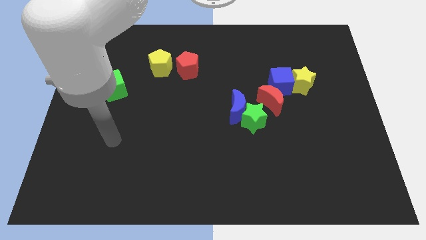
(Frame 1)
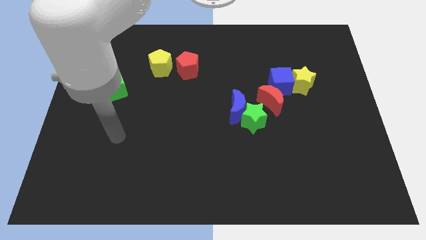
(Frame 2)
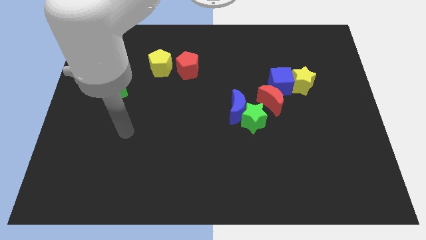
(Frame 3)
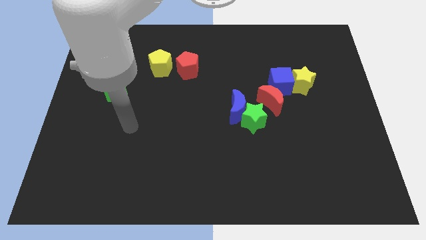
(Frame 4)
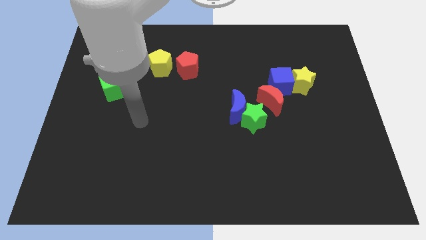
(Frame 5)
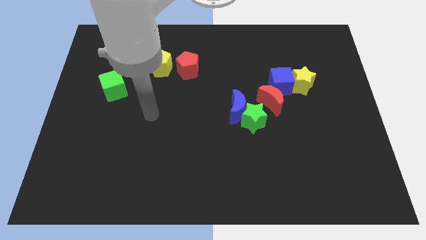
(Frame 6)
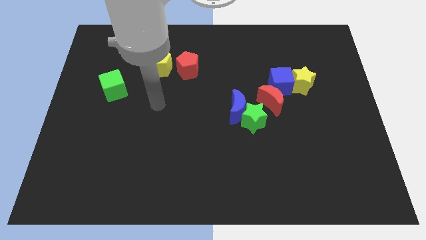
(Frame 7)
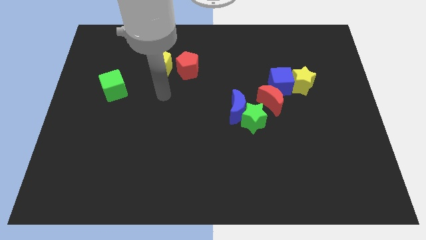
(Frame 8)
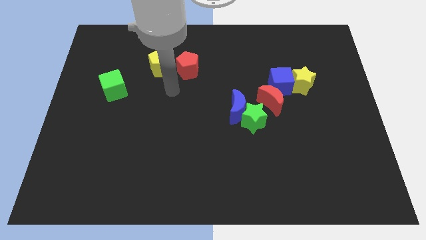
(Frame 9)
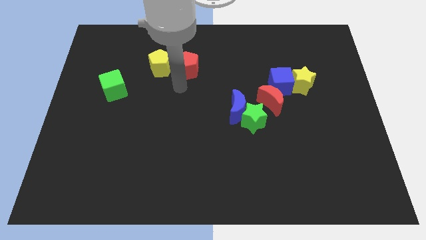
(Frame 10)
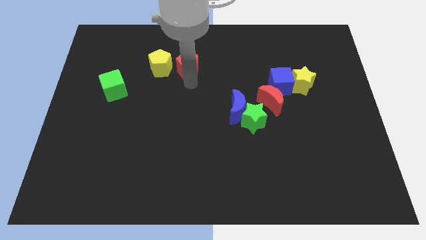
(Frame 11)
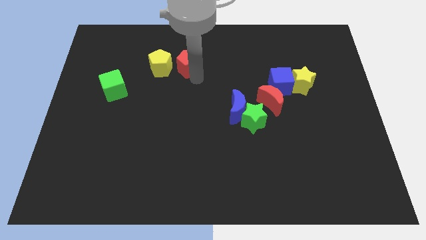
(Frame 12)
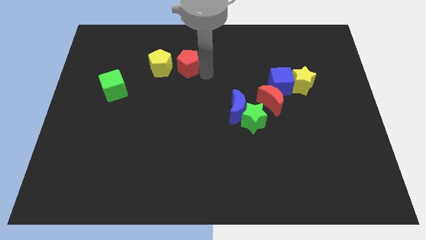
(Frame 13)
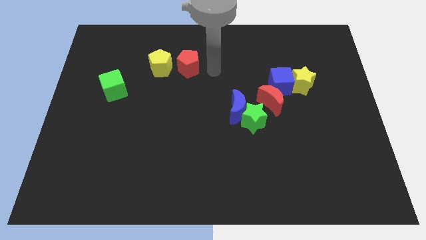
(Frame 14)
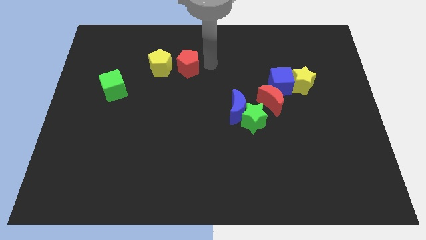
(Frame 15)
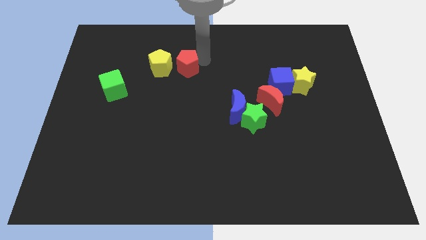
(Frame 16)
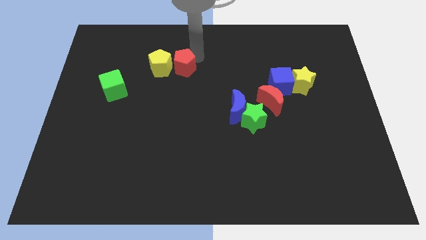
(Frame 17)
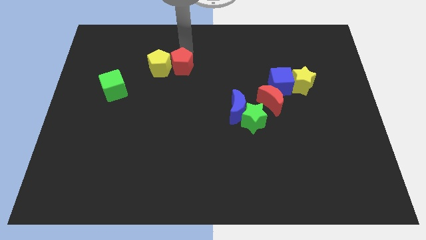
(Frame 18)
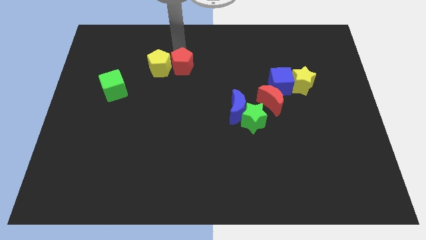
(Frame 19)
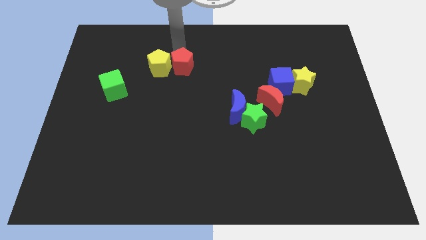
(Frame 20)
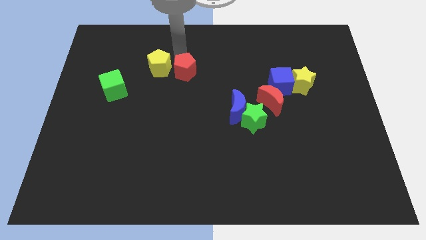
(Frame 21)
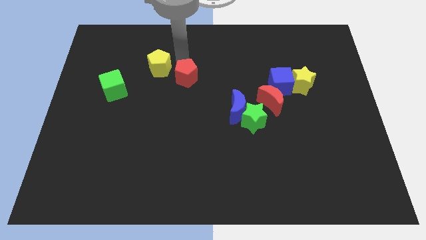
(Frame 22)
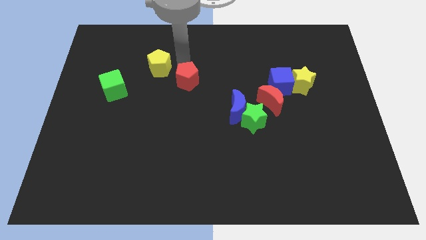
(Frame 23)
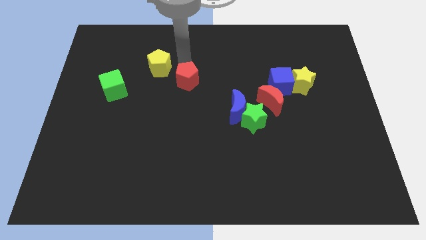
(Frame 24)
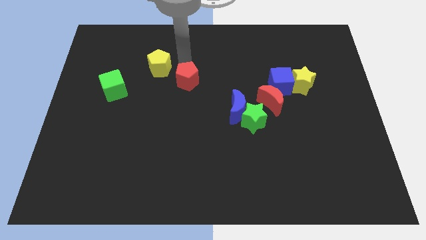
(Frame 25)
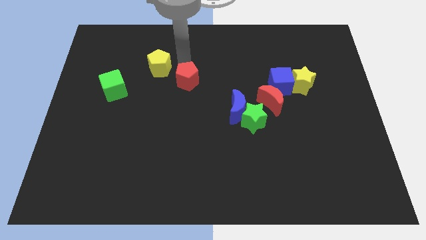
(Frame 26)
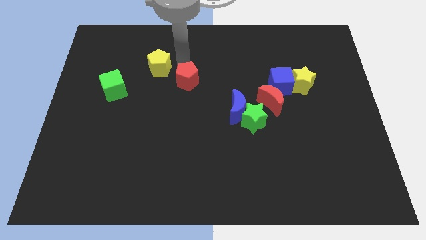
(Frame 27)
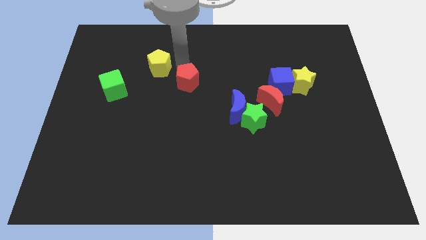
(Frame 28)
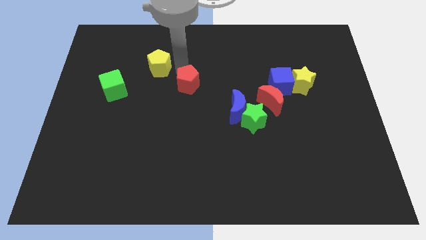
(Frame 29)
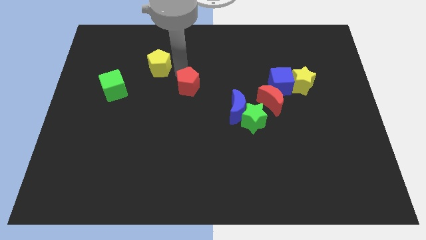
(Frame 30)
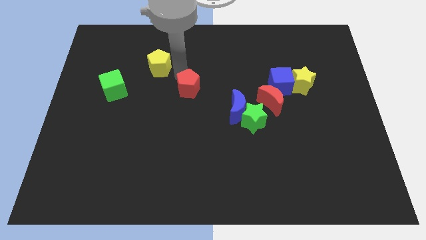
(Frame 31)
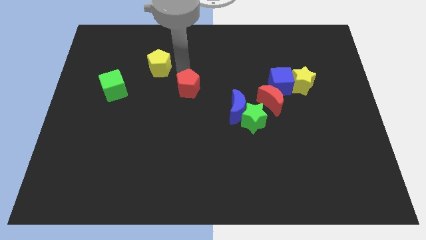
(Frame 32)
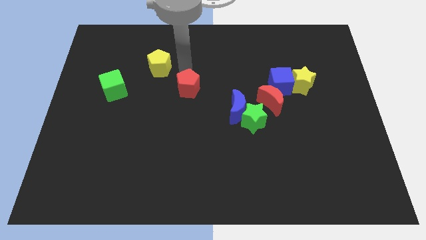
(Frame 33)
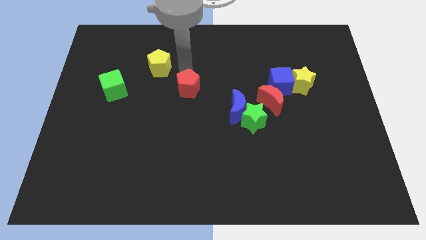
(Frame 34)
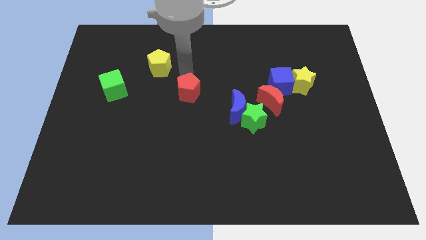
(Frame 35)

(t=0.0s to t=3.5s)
slightly move the red pentagon down

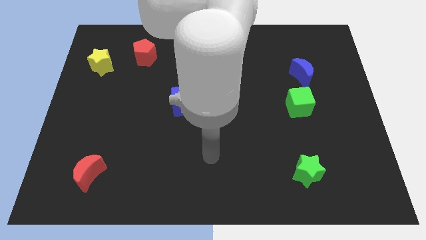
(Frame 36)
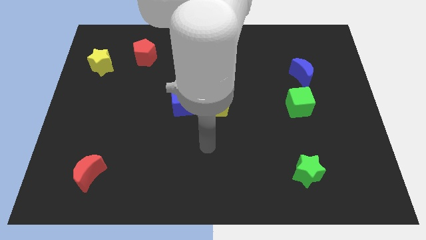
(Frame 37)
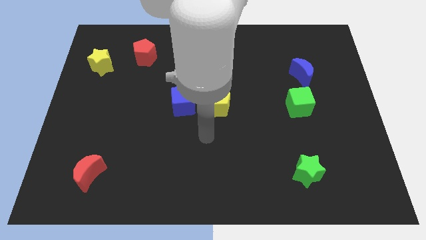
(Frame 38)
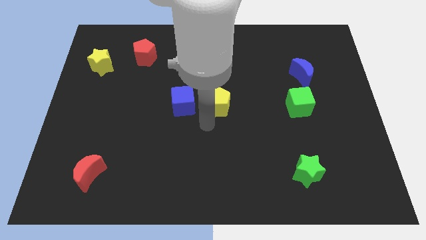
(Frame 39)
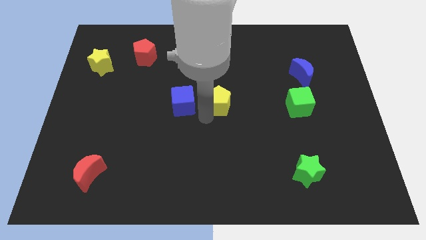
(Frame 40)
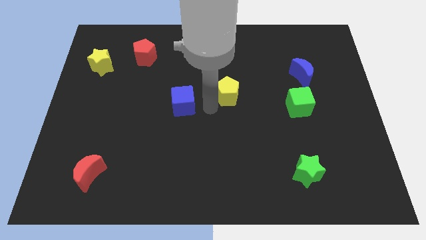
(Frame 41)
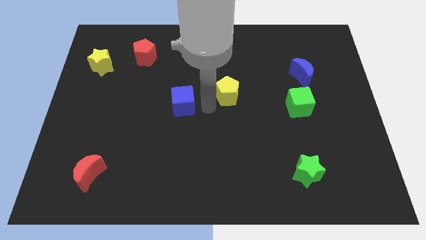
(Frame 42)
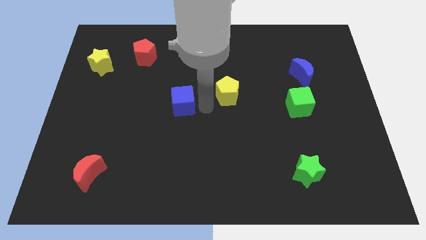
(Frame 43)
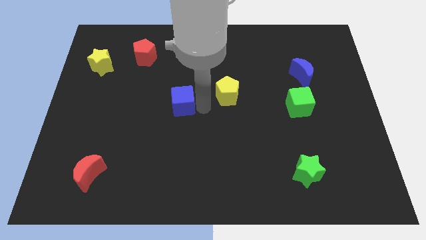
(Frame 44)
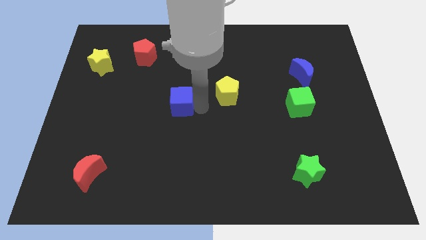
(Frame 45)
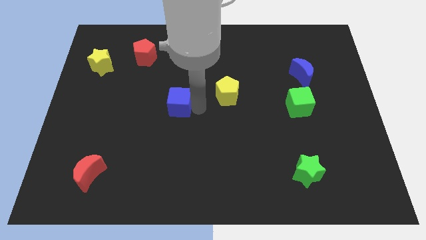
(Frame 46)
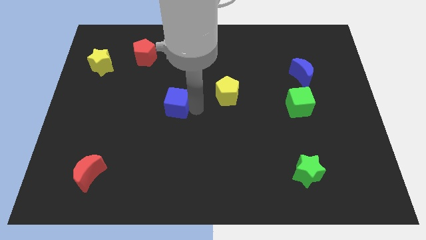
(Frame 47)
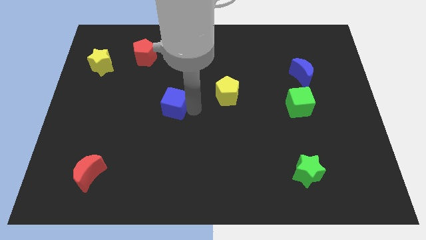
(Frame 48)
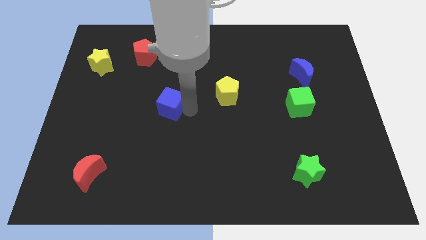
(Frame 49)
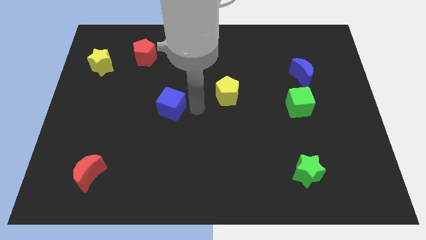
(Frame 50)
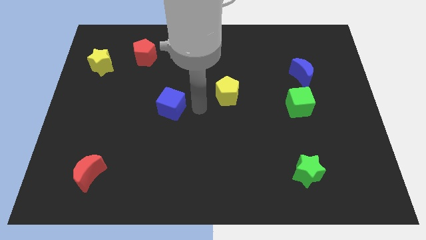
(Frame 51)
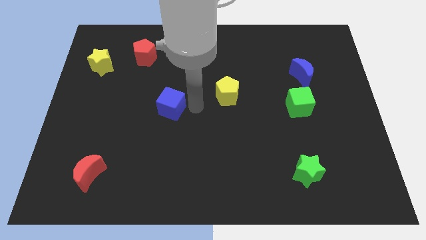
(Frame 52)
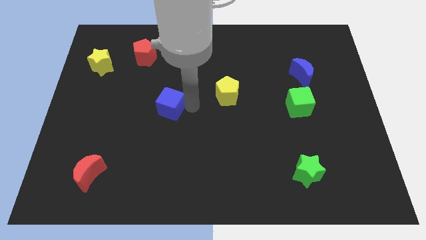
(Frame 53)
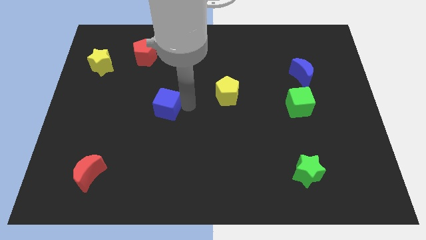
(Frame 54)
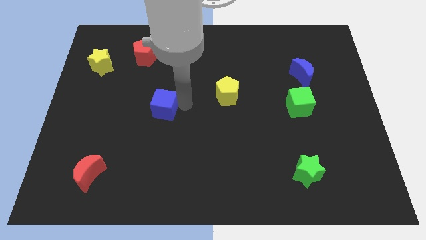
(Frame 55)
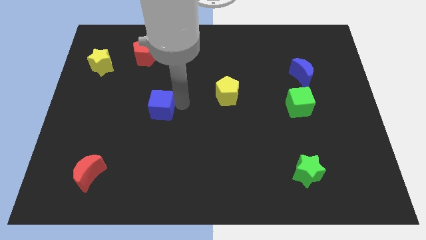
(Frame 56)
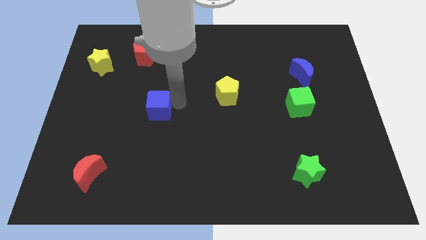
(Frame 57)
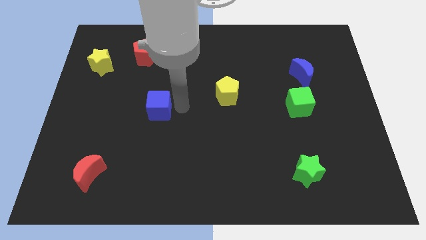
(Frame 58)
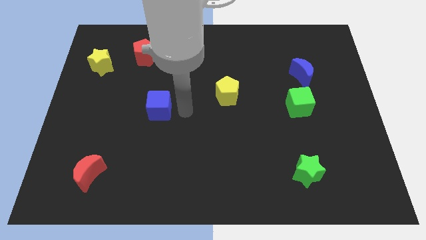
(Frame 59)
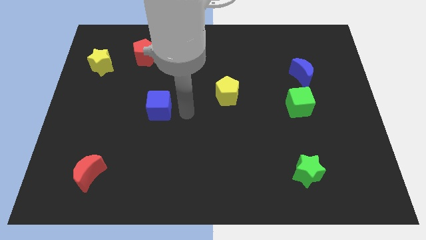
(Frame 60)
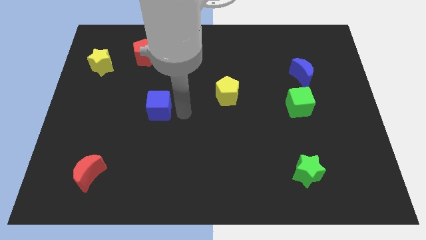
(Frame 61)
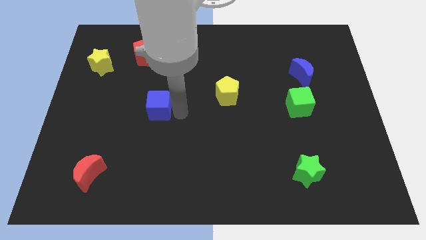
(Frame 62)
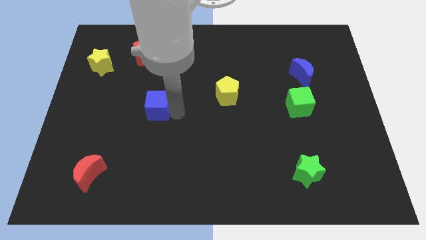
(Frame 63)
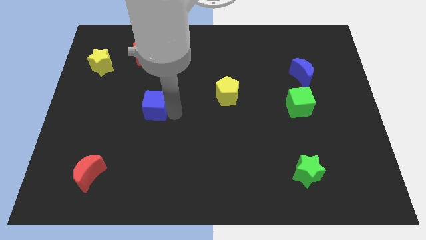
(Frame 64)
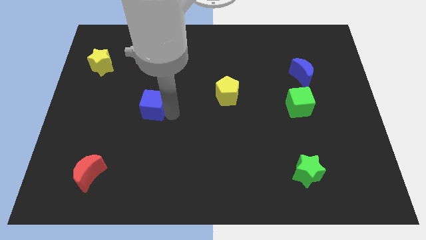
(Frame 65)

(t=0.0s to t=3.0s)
slightly slide the blue cube left

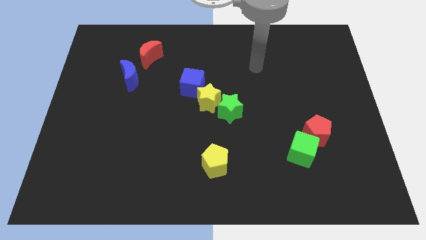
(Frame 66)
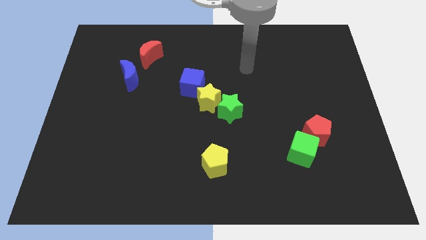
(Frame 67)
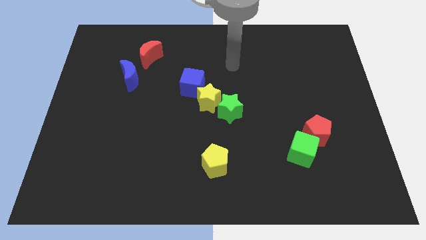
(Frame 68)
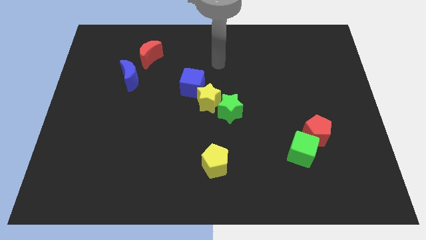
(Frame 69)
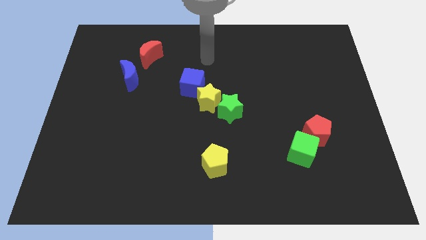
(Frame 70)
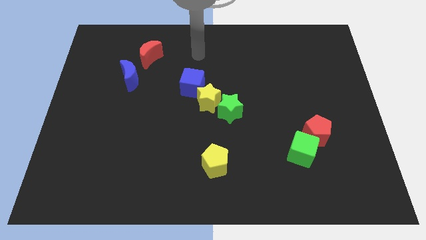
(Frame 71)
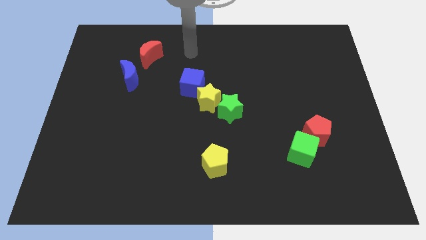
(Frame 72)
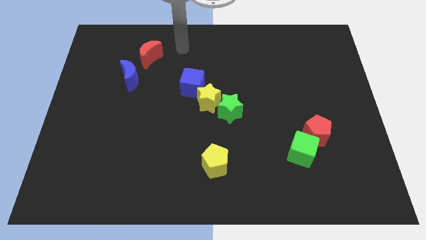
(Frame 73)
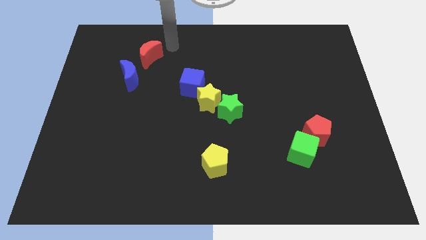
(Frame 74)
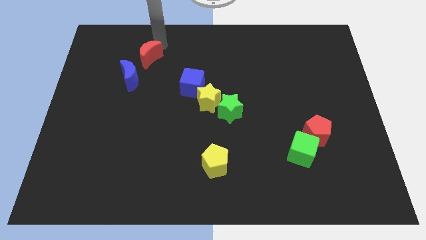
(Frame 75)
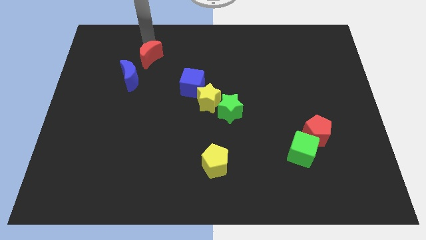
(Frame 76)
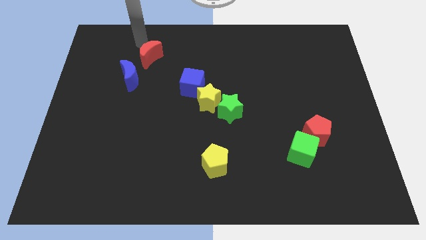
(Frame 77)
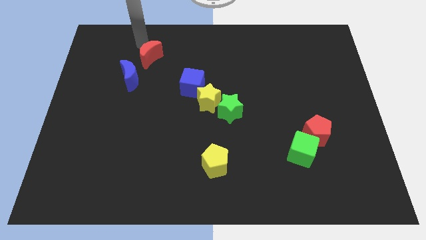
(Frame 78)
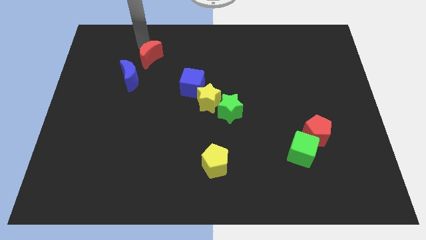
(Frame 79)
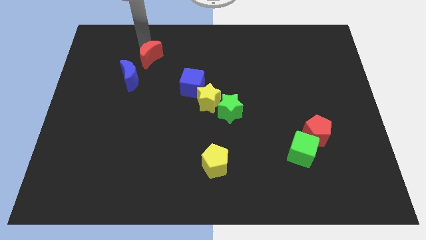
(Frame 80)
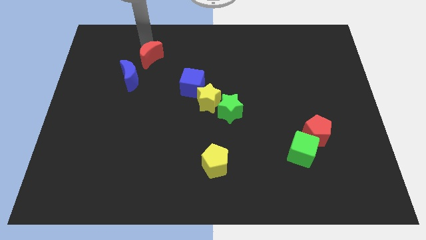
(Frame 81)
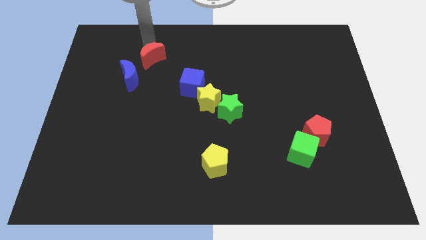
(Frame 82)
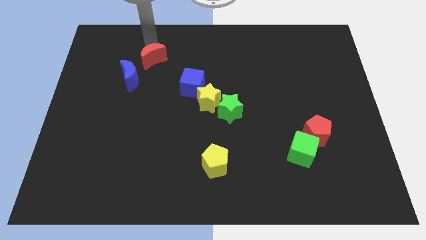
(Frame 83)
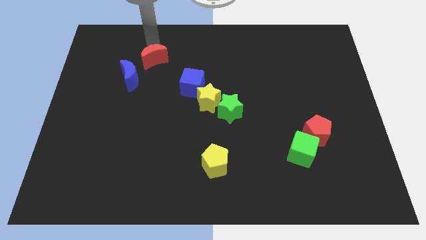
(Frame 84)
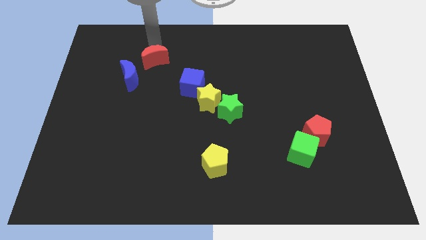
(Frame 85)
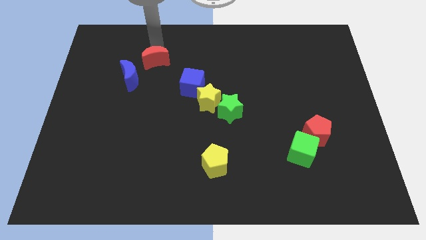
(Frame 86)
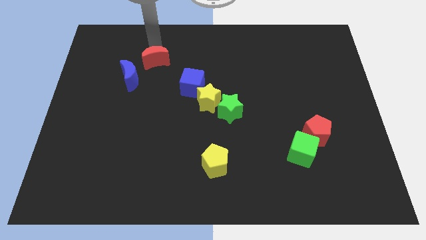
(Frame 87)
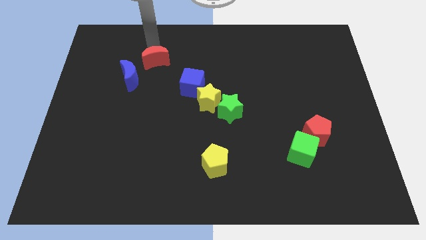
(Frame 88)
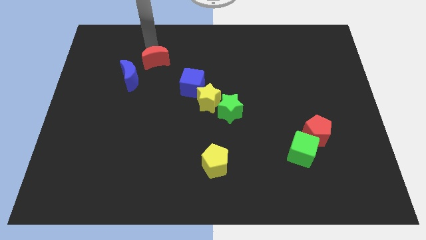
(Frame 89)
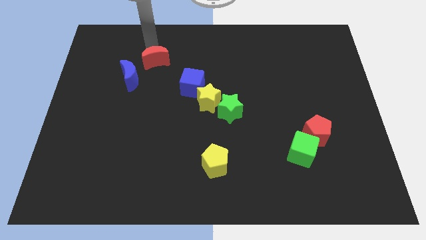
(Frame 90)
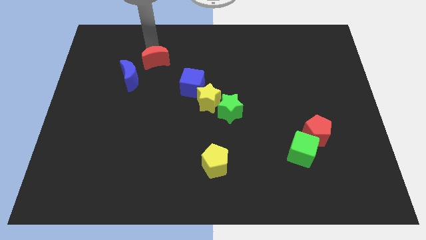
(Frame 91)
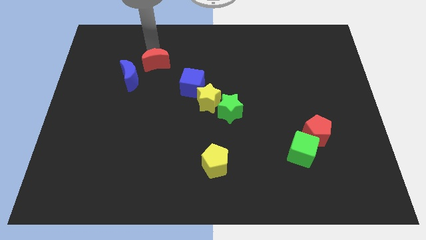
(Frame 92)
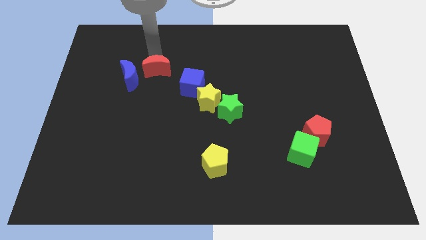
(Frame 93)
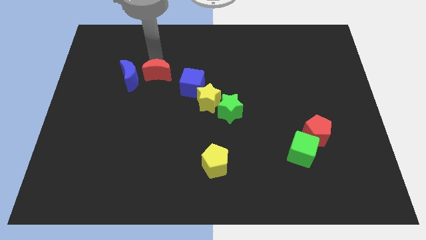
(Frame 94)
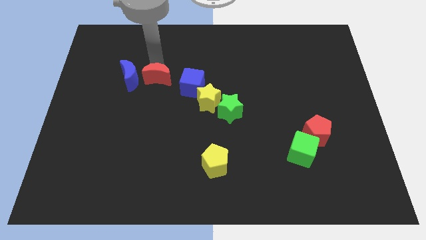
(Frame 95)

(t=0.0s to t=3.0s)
slightly slide the red moon downwards
